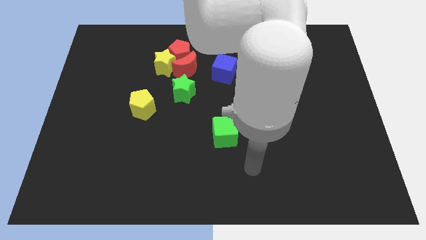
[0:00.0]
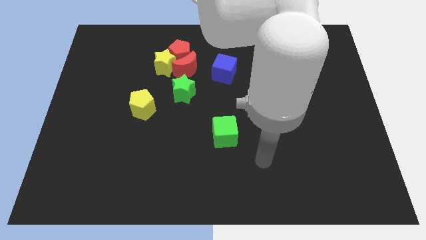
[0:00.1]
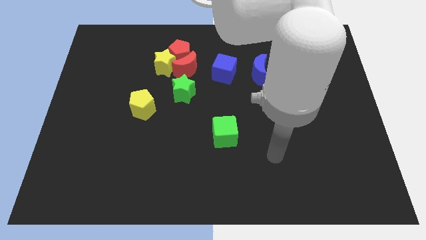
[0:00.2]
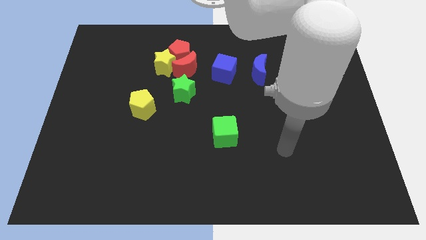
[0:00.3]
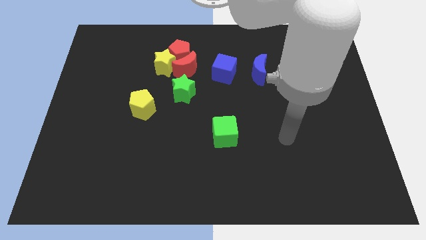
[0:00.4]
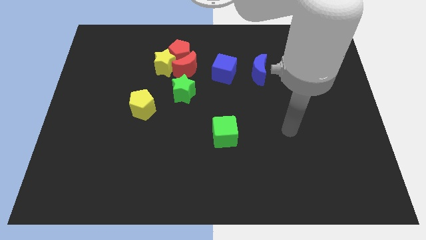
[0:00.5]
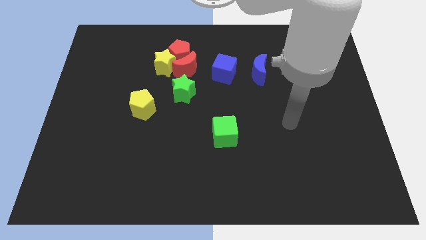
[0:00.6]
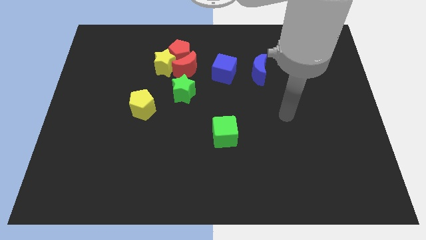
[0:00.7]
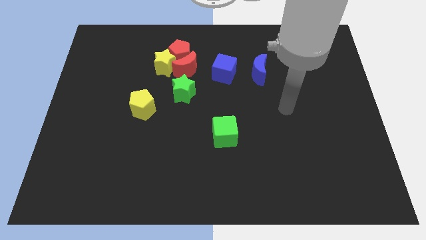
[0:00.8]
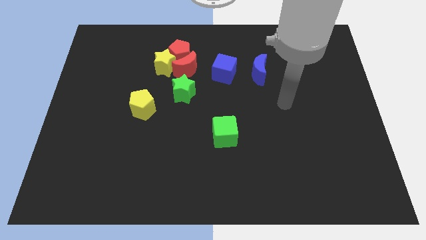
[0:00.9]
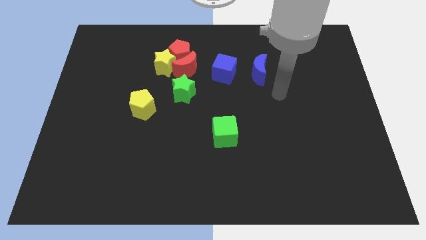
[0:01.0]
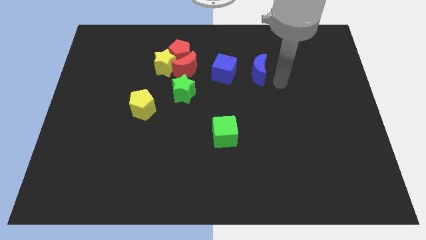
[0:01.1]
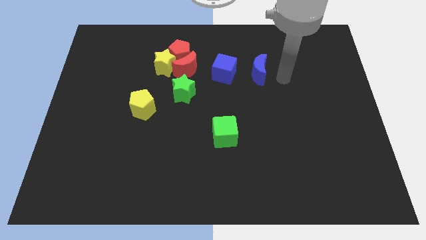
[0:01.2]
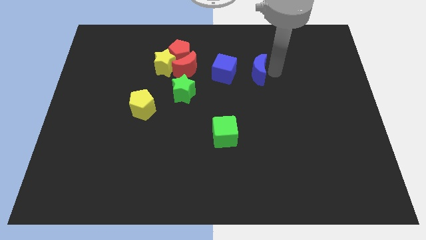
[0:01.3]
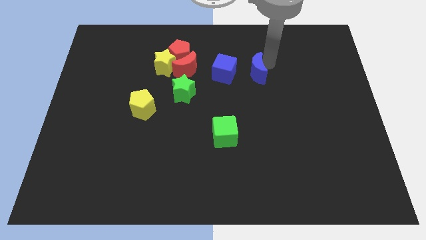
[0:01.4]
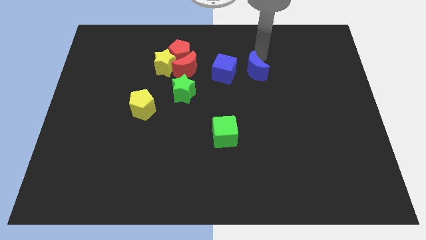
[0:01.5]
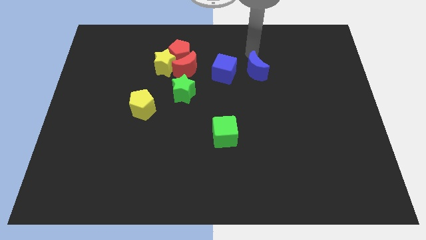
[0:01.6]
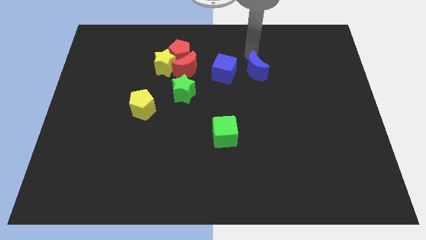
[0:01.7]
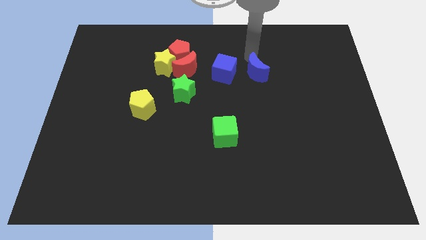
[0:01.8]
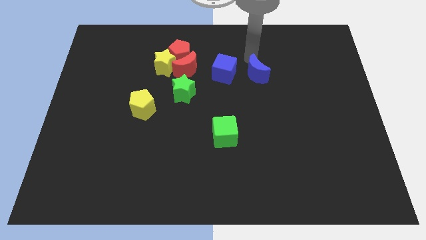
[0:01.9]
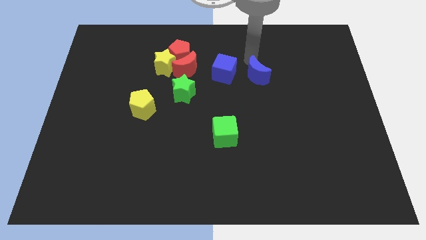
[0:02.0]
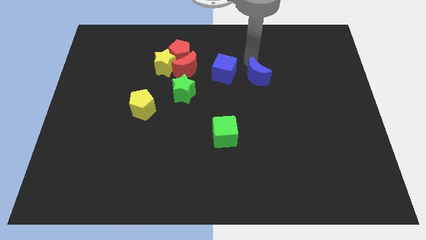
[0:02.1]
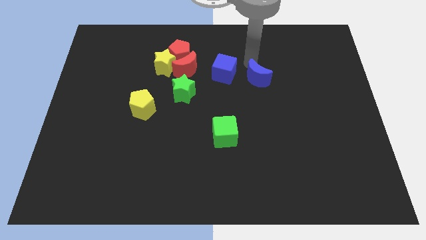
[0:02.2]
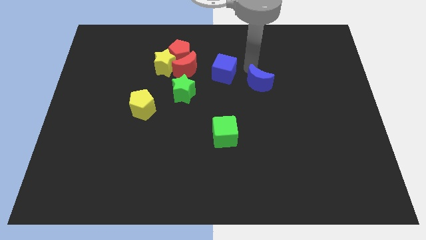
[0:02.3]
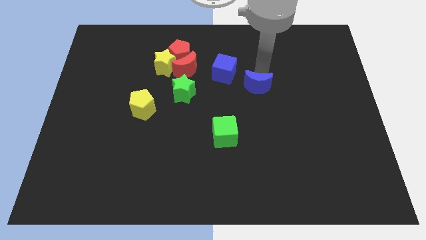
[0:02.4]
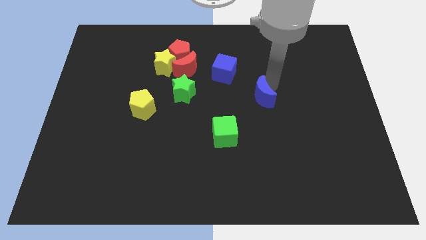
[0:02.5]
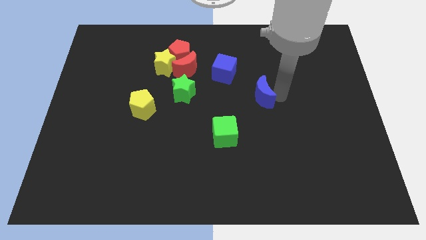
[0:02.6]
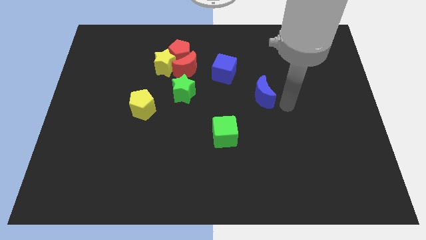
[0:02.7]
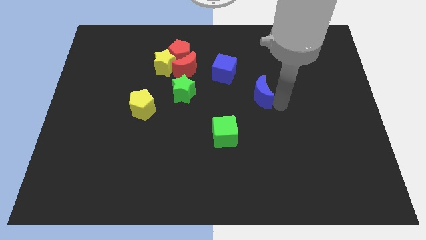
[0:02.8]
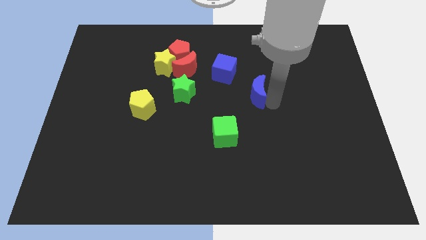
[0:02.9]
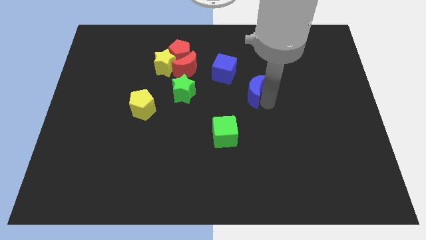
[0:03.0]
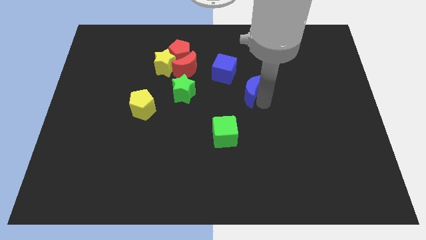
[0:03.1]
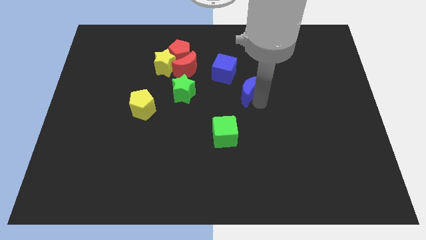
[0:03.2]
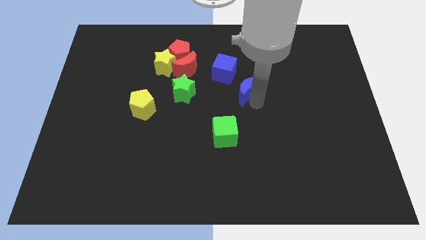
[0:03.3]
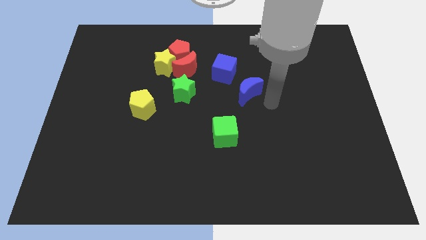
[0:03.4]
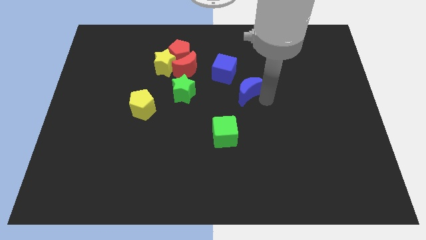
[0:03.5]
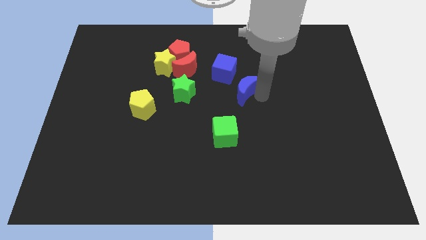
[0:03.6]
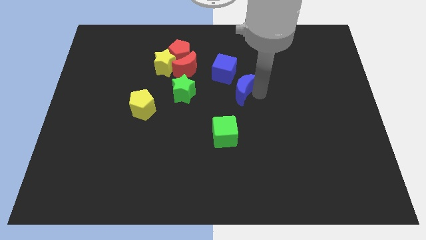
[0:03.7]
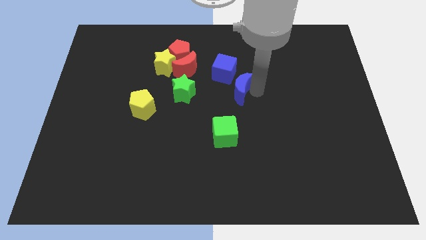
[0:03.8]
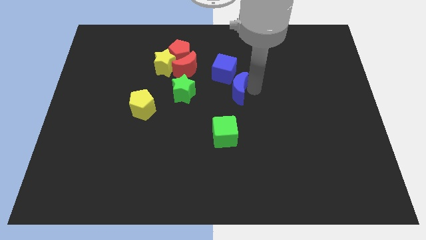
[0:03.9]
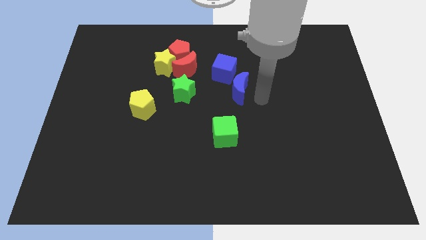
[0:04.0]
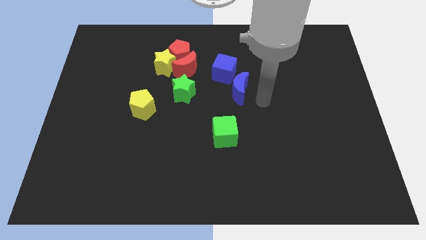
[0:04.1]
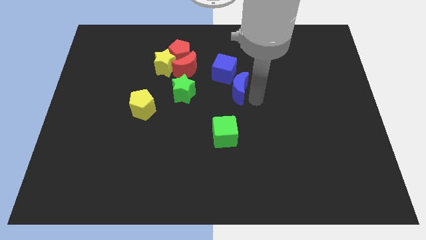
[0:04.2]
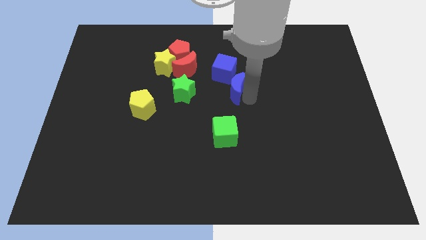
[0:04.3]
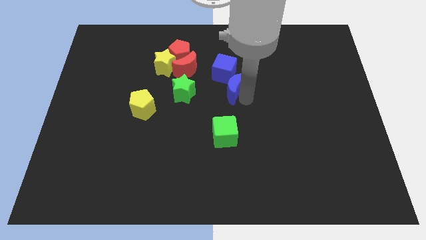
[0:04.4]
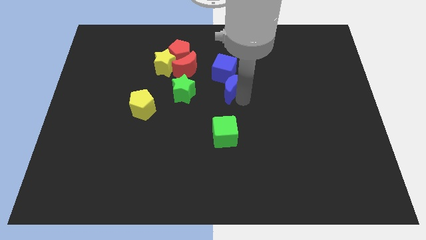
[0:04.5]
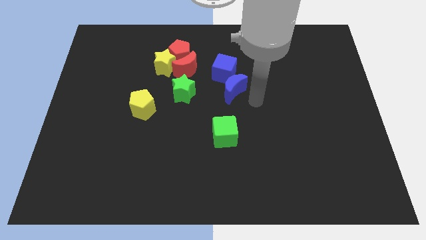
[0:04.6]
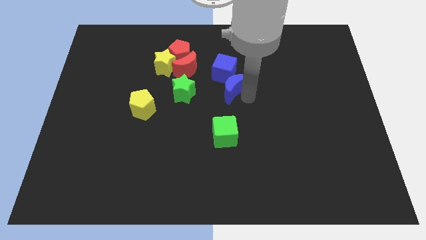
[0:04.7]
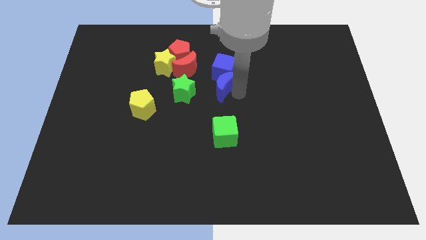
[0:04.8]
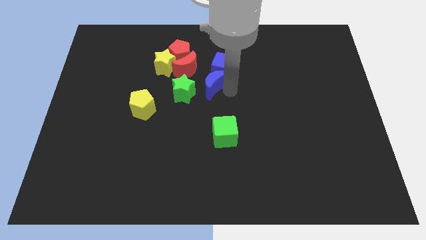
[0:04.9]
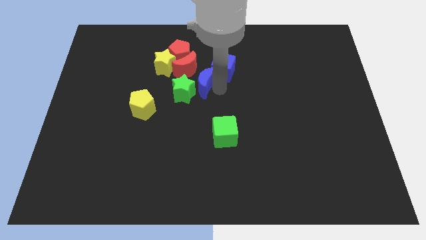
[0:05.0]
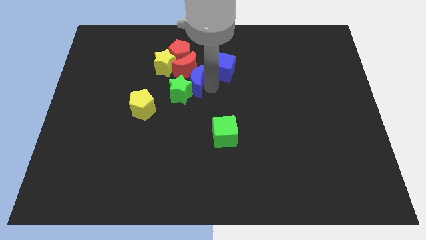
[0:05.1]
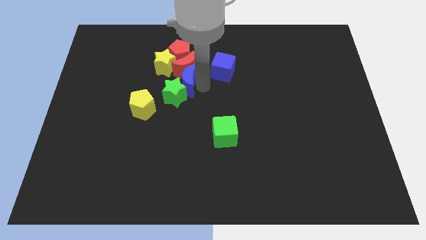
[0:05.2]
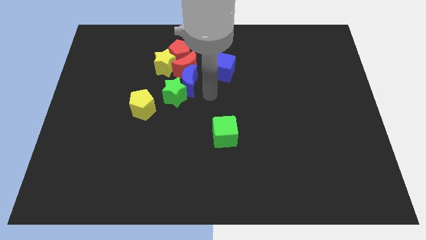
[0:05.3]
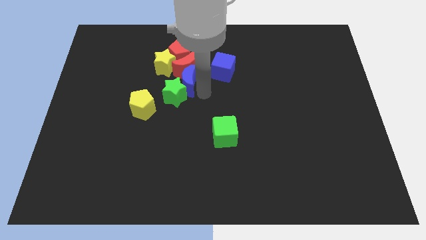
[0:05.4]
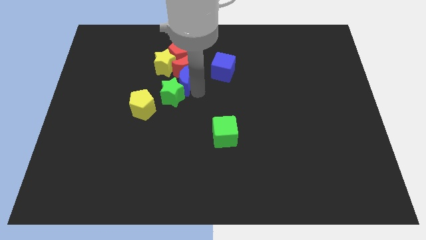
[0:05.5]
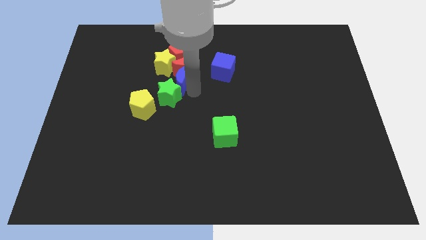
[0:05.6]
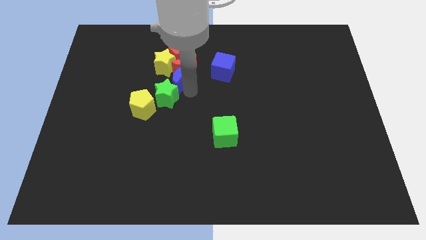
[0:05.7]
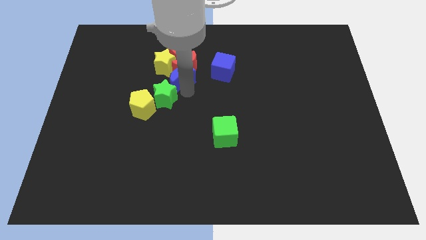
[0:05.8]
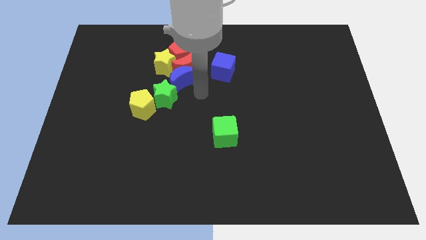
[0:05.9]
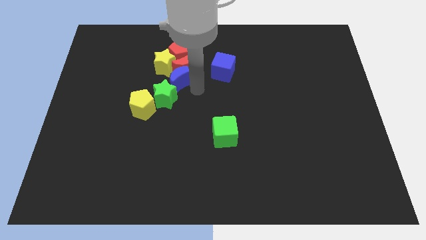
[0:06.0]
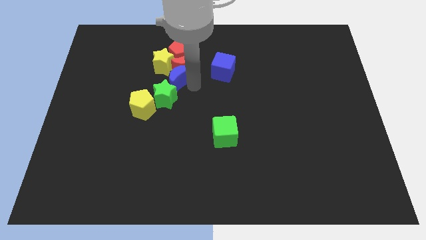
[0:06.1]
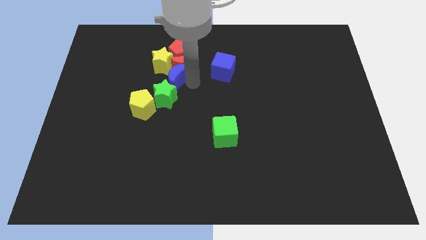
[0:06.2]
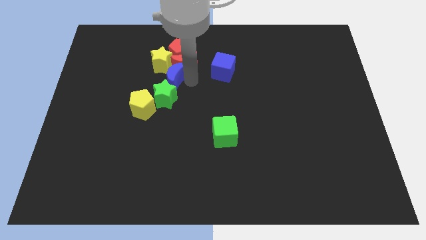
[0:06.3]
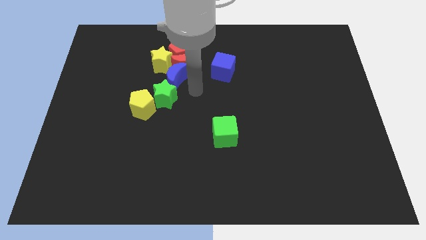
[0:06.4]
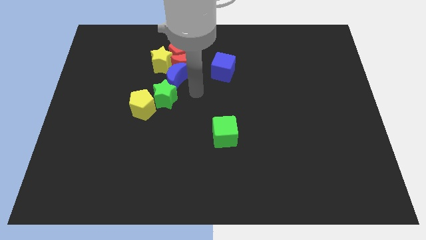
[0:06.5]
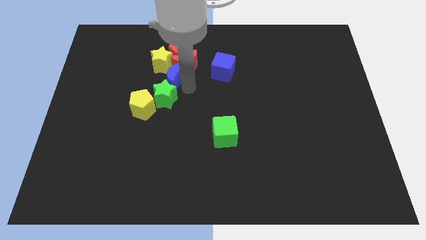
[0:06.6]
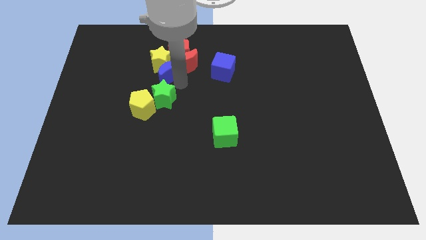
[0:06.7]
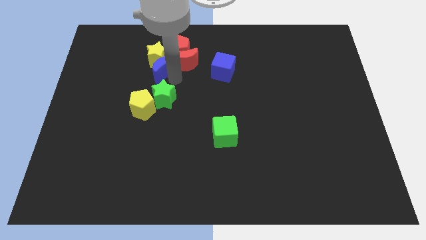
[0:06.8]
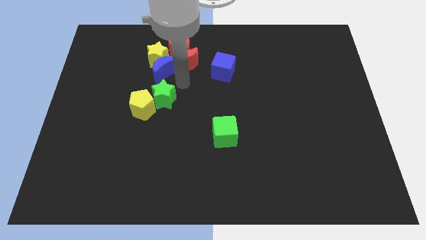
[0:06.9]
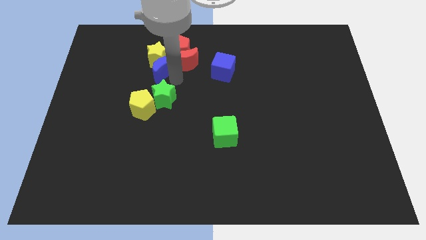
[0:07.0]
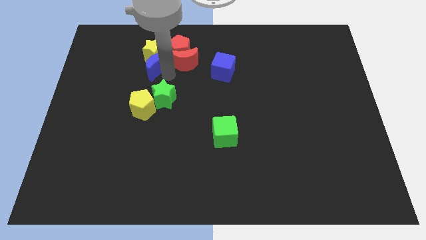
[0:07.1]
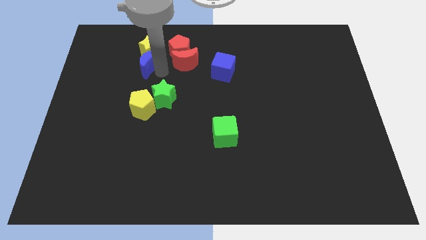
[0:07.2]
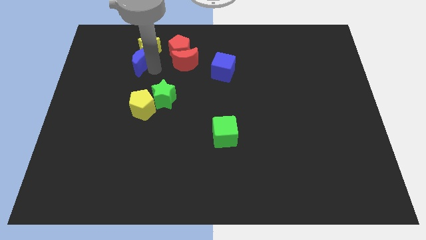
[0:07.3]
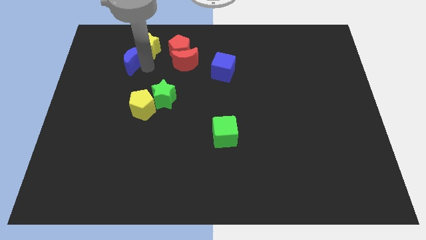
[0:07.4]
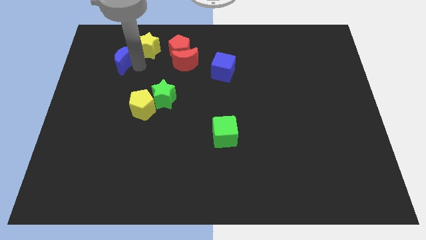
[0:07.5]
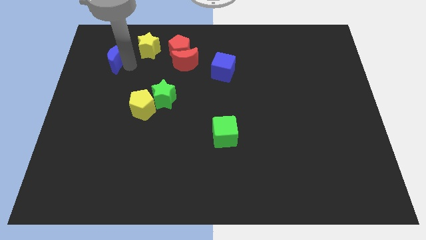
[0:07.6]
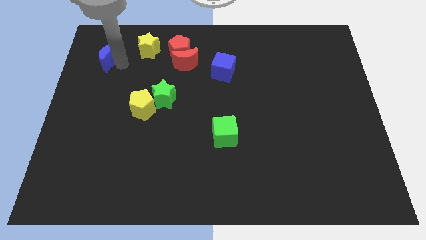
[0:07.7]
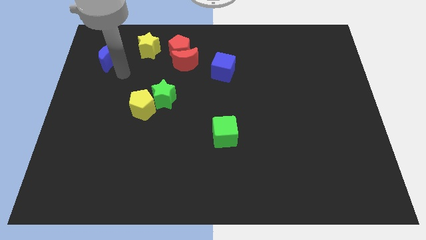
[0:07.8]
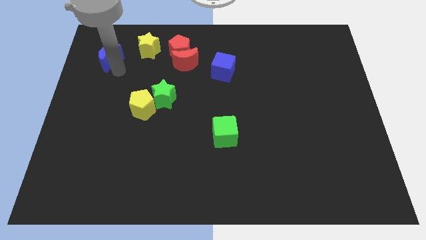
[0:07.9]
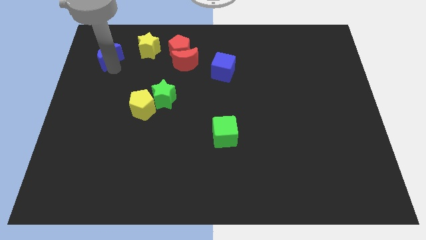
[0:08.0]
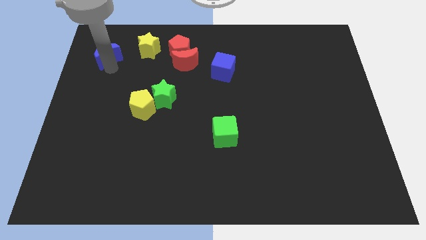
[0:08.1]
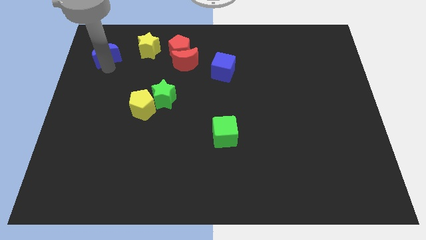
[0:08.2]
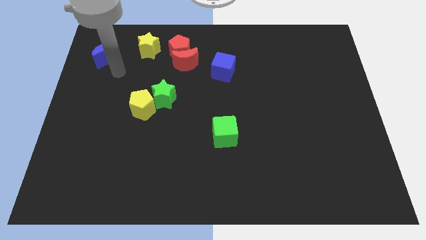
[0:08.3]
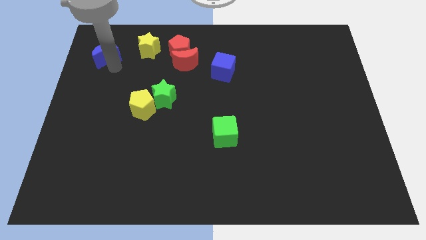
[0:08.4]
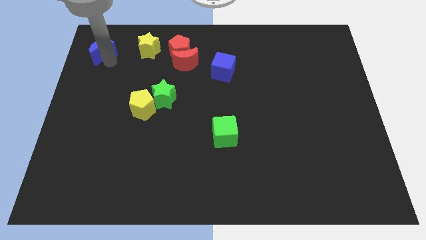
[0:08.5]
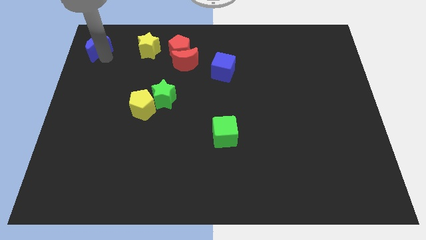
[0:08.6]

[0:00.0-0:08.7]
push the blue moon to the top left of the board
